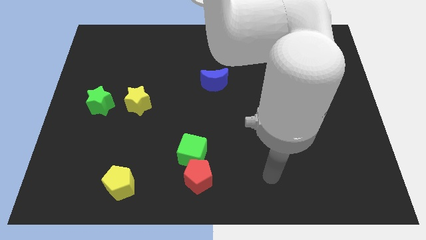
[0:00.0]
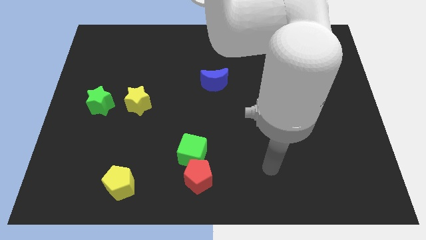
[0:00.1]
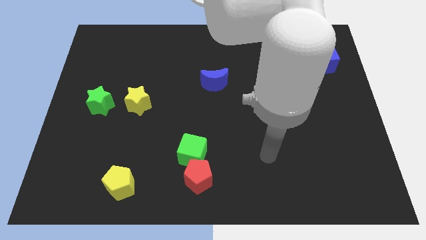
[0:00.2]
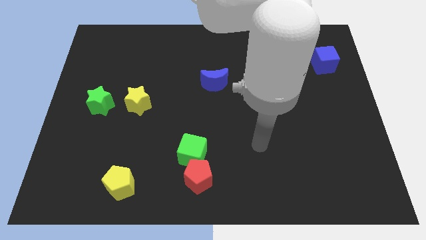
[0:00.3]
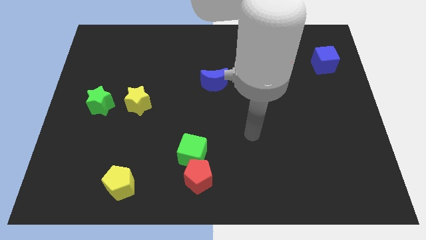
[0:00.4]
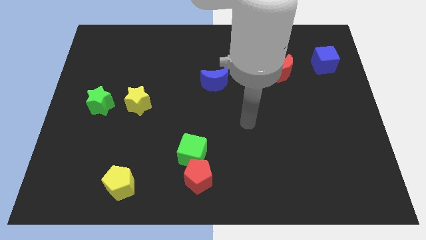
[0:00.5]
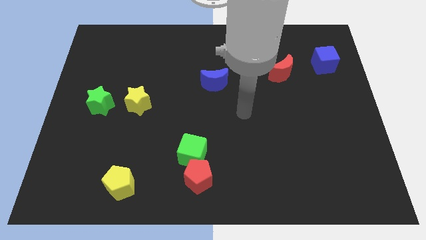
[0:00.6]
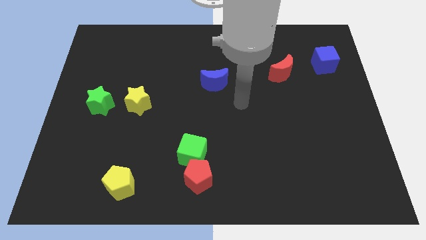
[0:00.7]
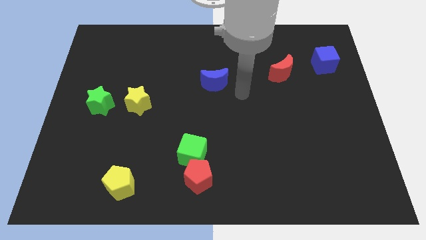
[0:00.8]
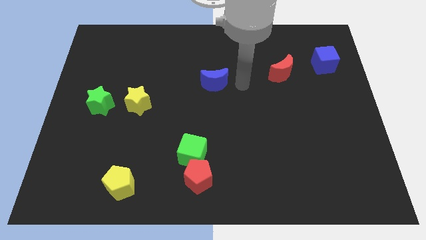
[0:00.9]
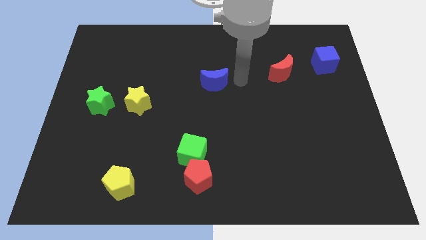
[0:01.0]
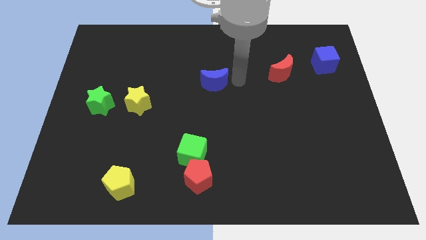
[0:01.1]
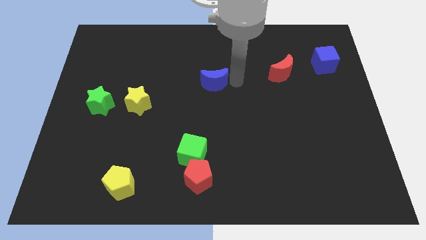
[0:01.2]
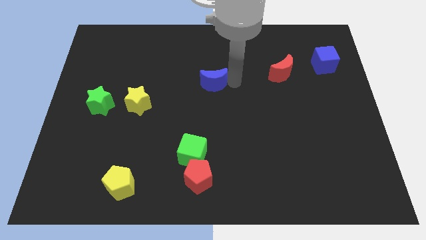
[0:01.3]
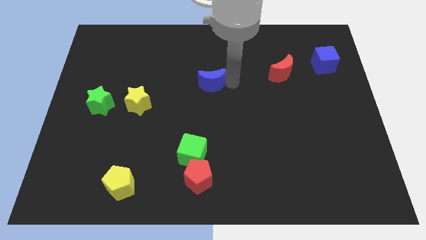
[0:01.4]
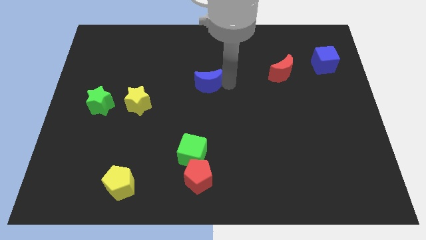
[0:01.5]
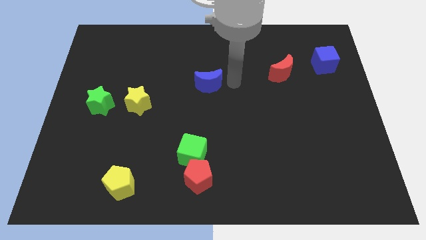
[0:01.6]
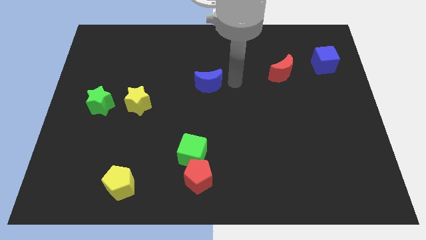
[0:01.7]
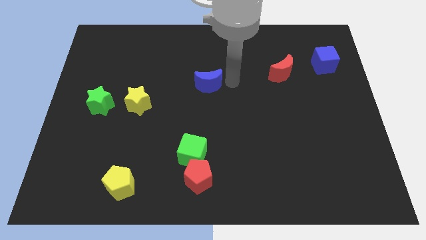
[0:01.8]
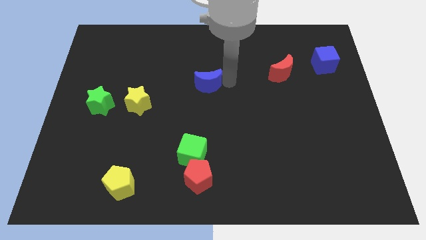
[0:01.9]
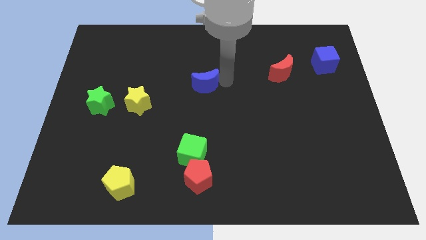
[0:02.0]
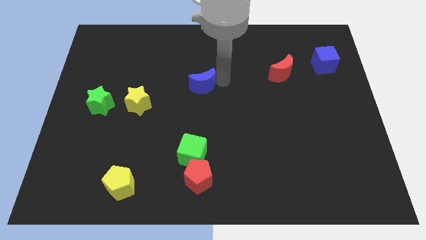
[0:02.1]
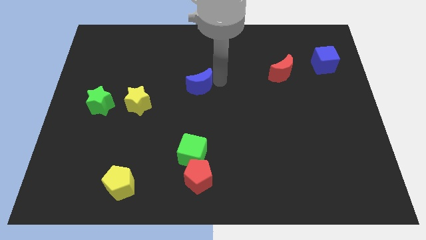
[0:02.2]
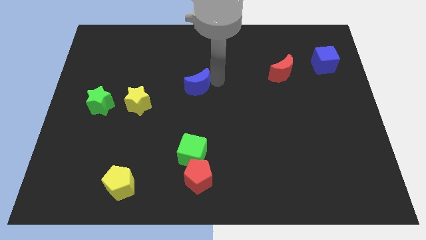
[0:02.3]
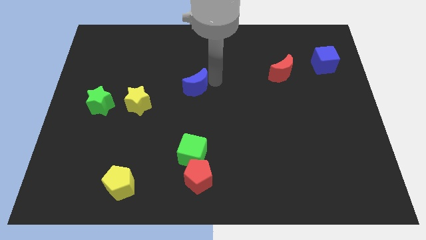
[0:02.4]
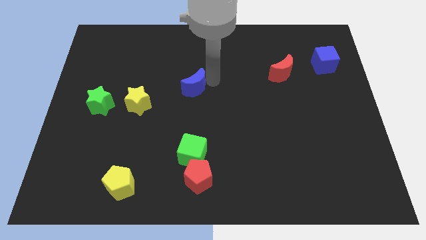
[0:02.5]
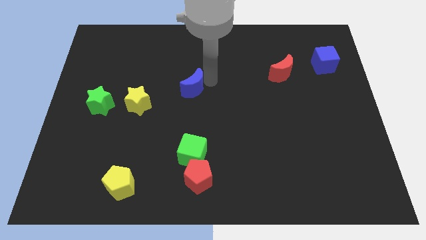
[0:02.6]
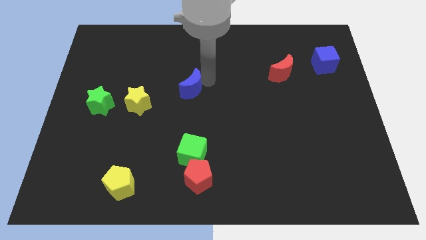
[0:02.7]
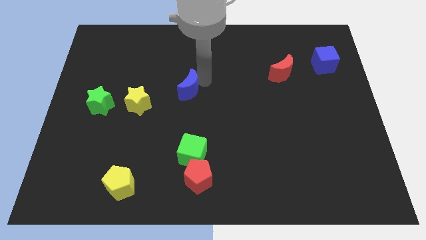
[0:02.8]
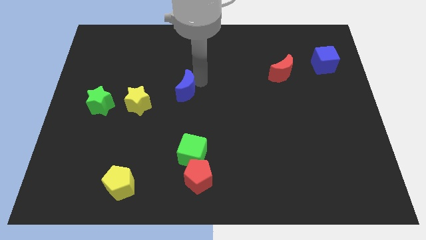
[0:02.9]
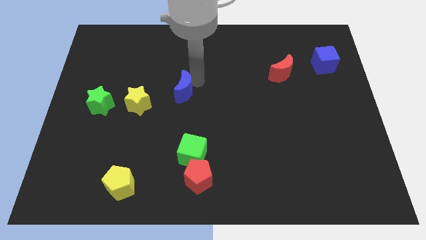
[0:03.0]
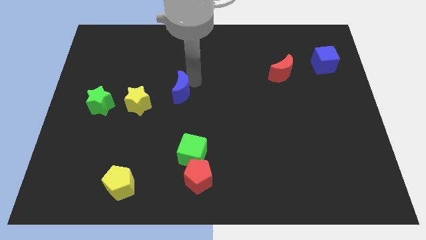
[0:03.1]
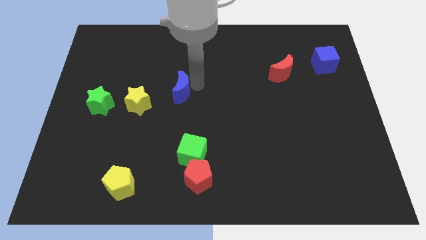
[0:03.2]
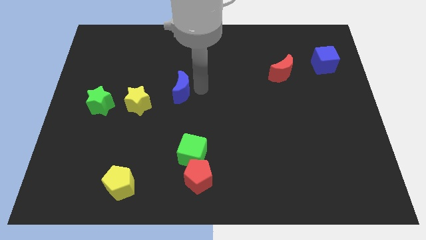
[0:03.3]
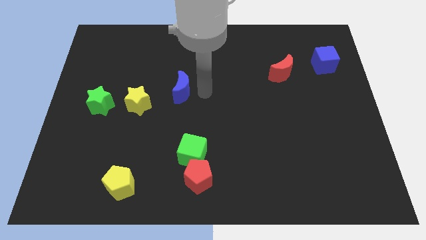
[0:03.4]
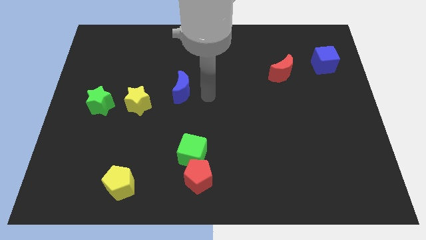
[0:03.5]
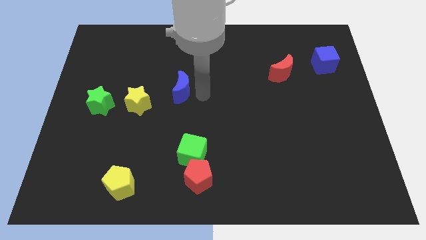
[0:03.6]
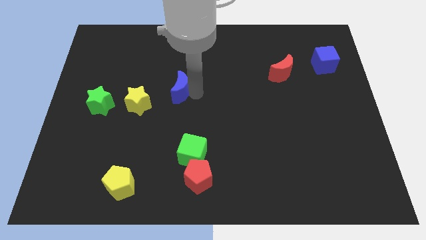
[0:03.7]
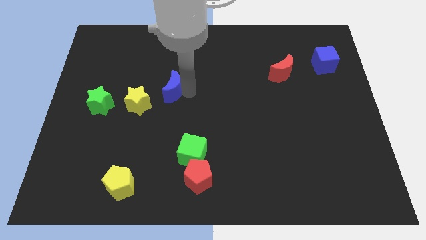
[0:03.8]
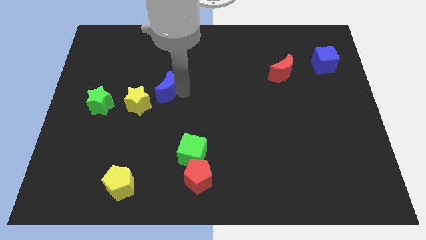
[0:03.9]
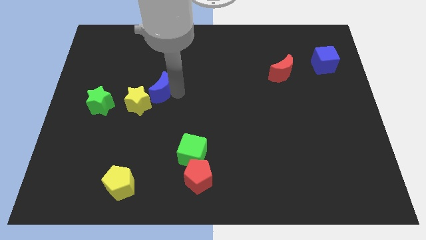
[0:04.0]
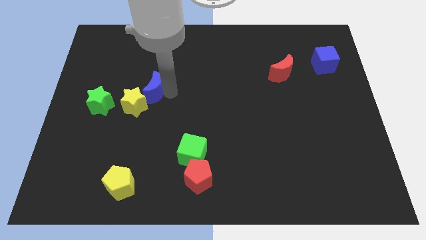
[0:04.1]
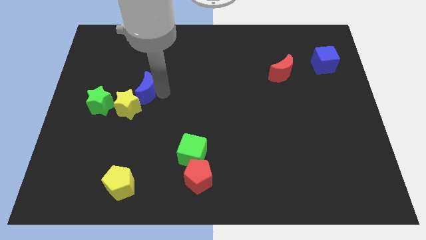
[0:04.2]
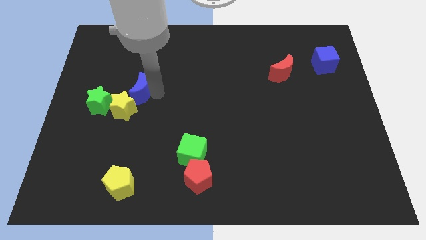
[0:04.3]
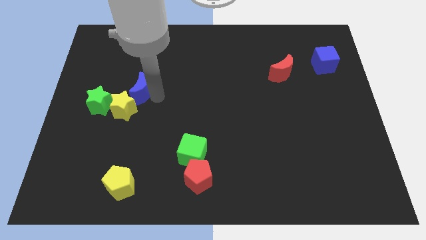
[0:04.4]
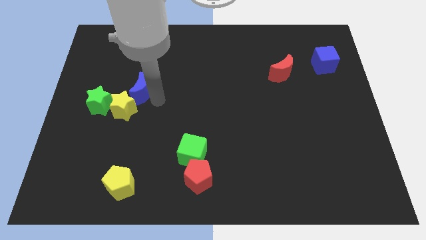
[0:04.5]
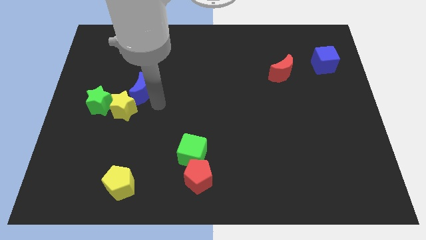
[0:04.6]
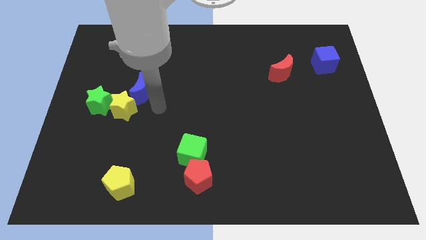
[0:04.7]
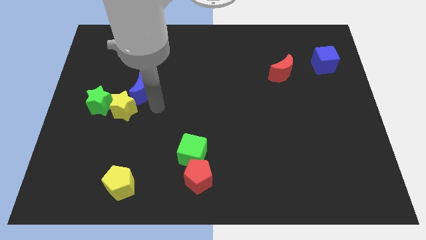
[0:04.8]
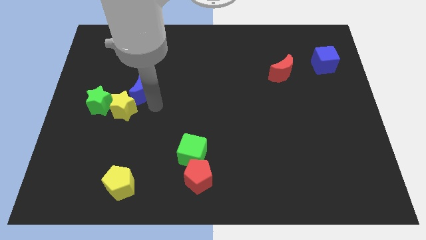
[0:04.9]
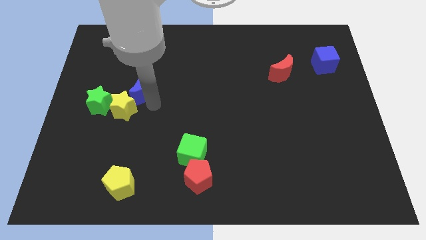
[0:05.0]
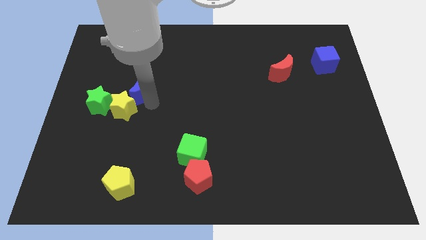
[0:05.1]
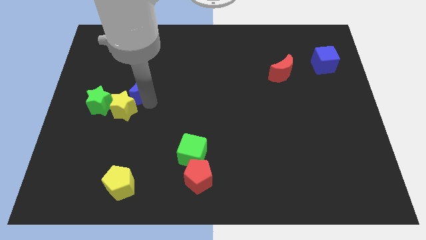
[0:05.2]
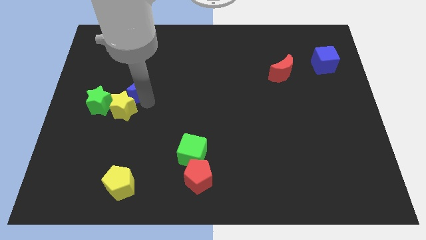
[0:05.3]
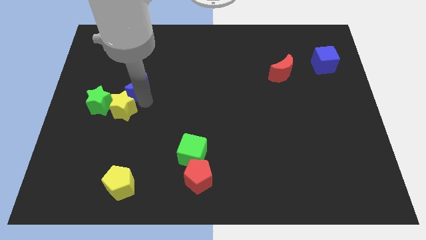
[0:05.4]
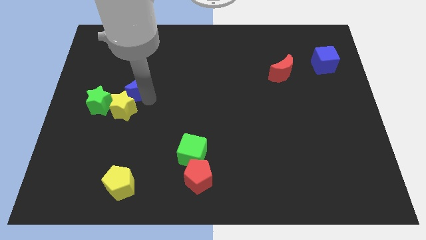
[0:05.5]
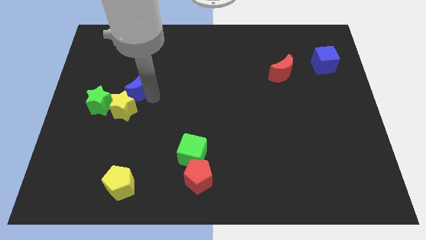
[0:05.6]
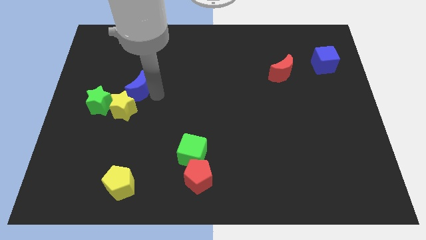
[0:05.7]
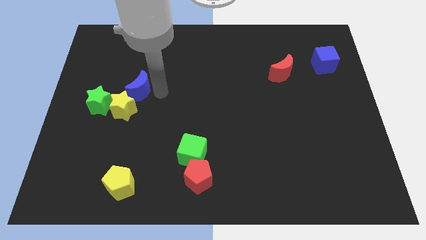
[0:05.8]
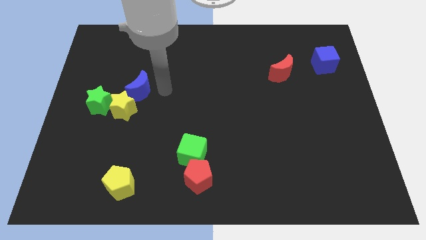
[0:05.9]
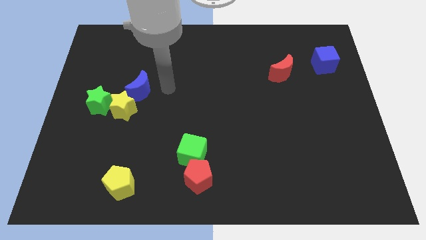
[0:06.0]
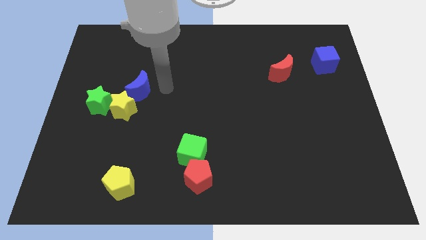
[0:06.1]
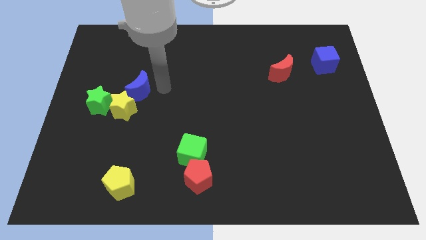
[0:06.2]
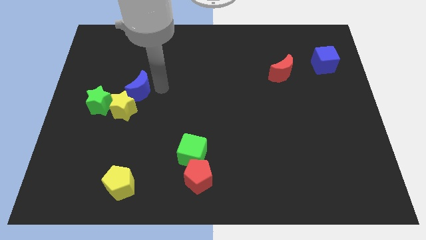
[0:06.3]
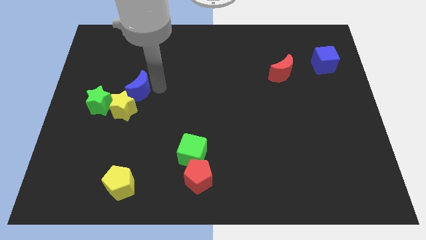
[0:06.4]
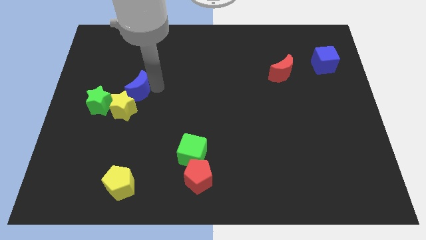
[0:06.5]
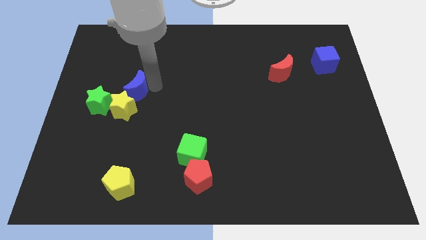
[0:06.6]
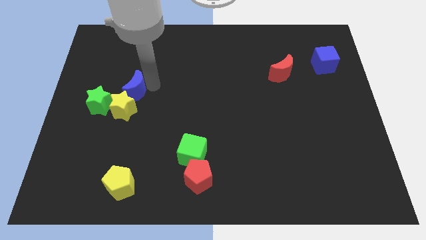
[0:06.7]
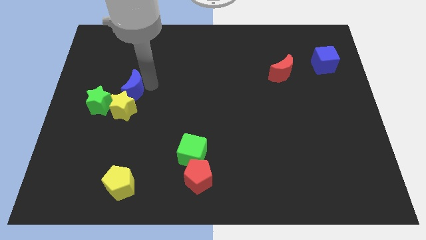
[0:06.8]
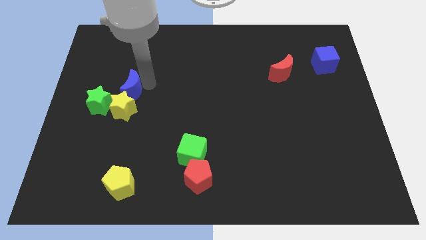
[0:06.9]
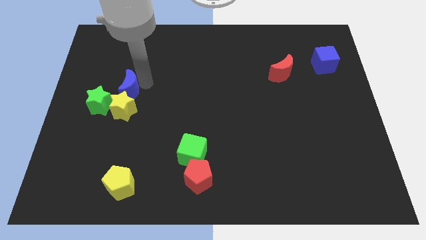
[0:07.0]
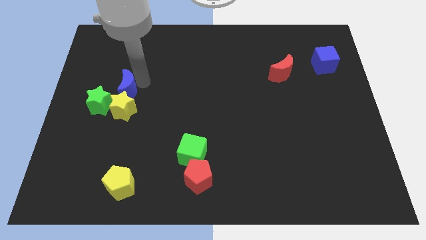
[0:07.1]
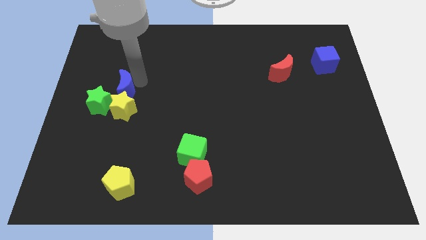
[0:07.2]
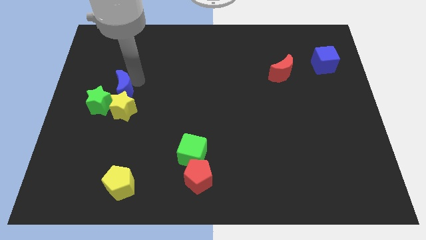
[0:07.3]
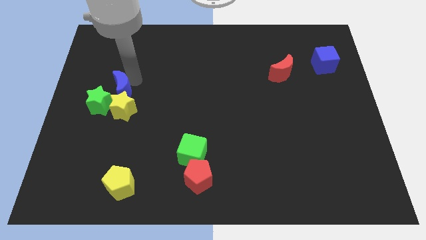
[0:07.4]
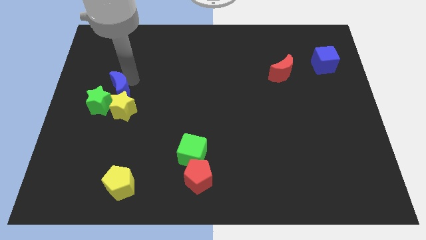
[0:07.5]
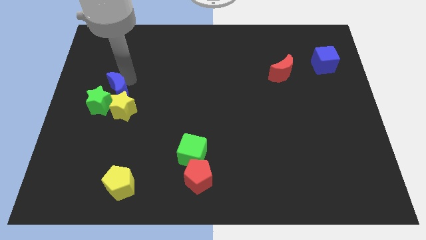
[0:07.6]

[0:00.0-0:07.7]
move the blue moon close to the green star
